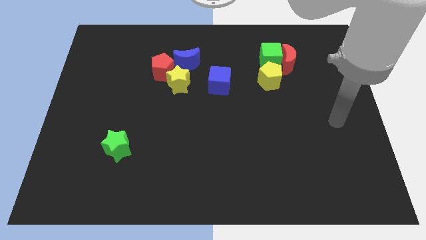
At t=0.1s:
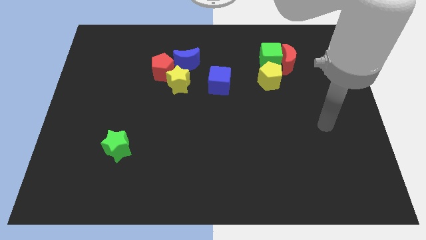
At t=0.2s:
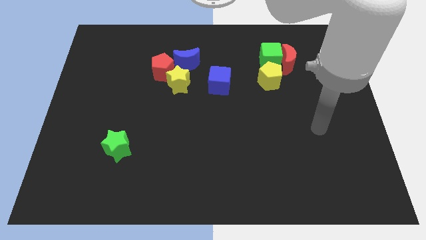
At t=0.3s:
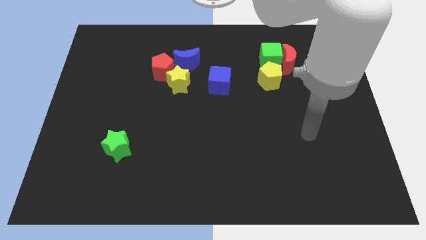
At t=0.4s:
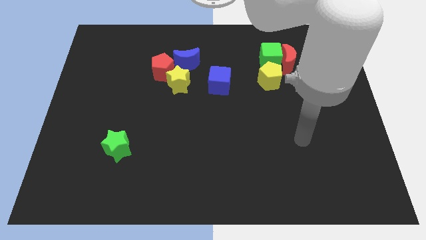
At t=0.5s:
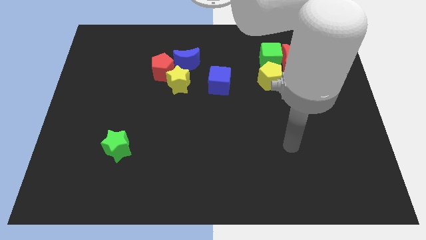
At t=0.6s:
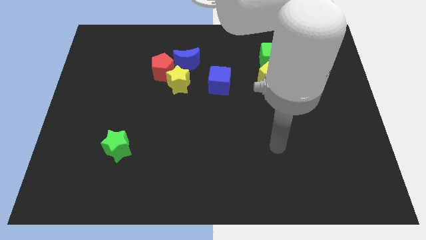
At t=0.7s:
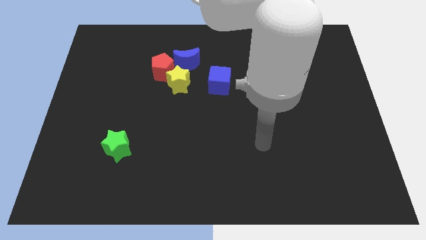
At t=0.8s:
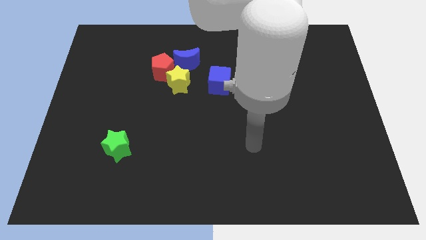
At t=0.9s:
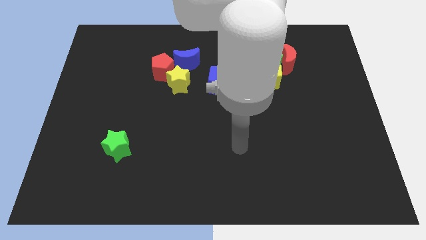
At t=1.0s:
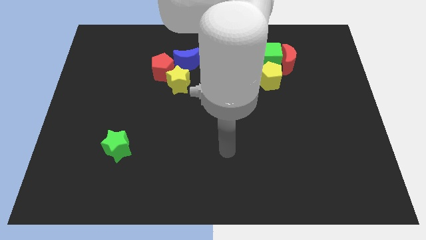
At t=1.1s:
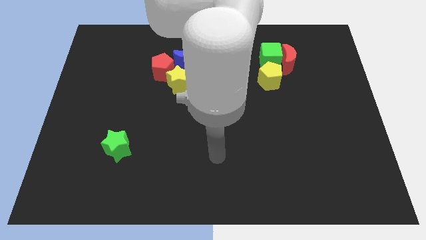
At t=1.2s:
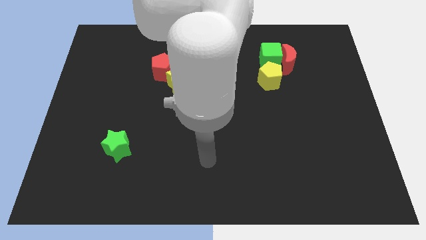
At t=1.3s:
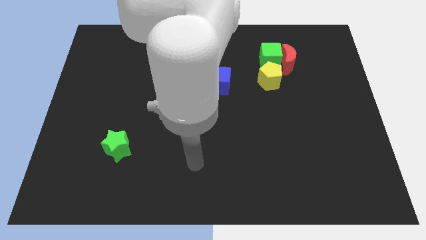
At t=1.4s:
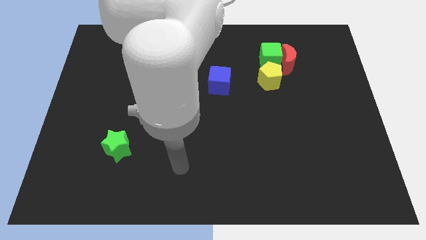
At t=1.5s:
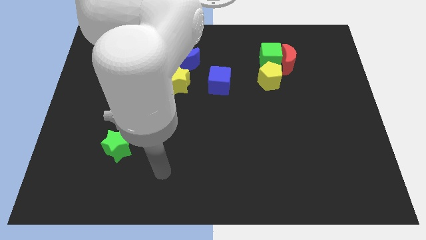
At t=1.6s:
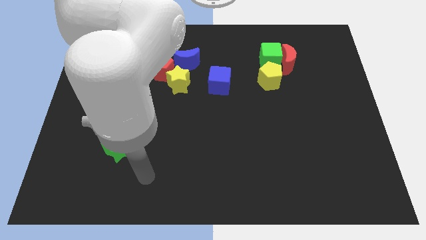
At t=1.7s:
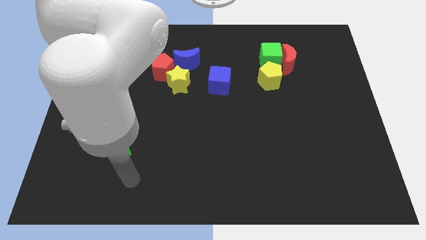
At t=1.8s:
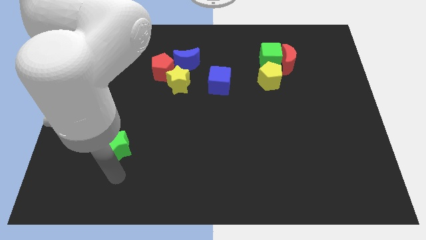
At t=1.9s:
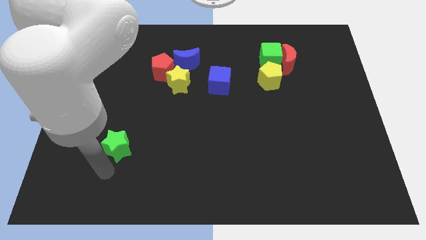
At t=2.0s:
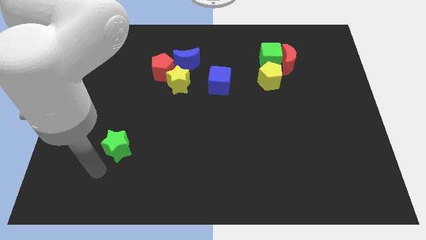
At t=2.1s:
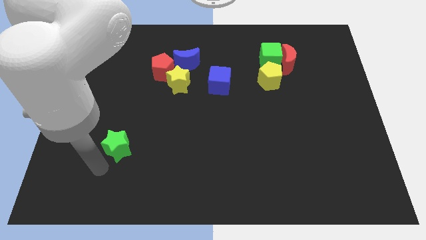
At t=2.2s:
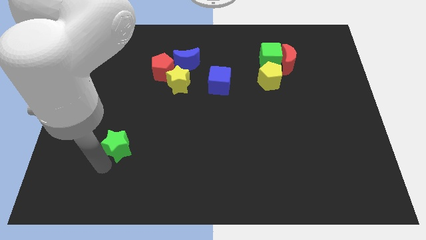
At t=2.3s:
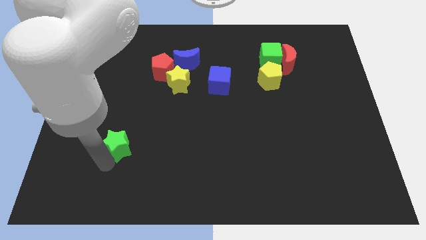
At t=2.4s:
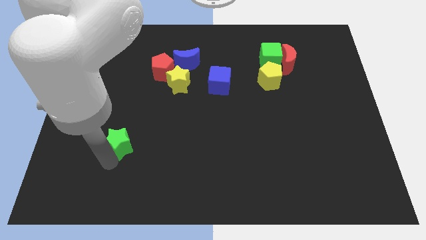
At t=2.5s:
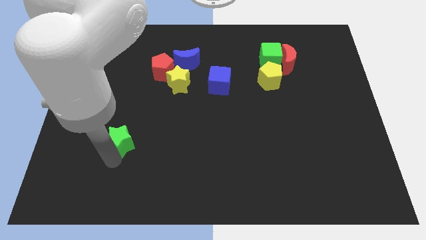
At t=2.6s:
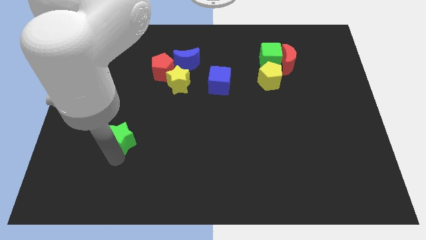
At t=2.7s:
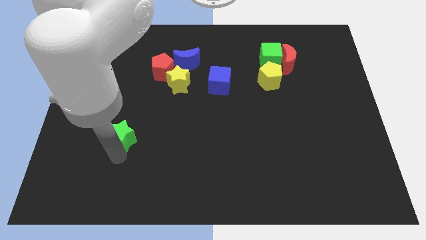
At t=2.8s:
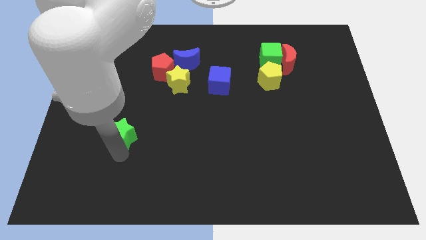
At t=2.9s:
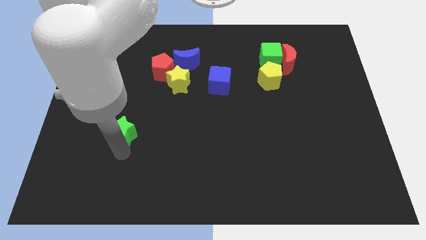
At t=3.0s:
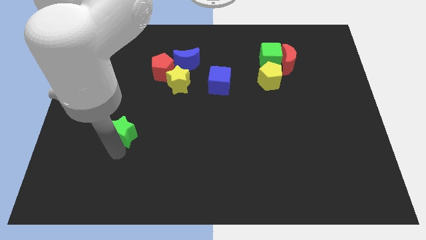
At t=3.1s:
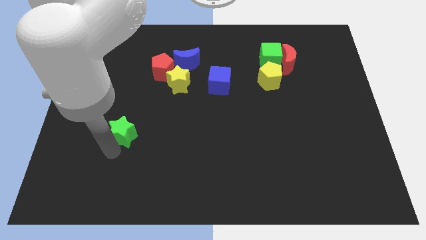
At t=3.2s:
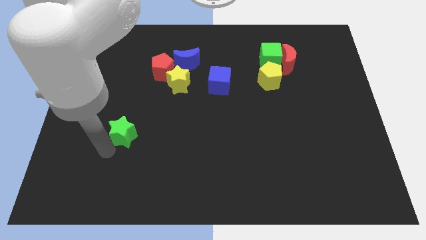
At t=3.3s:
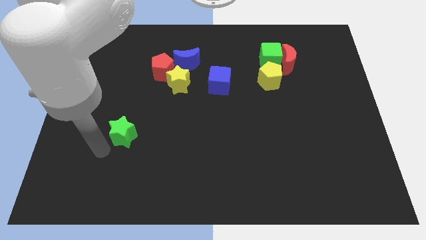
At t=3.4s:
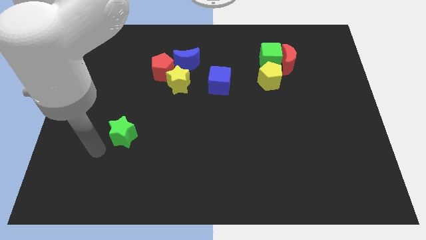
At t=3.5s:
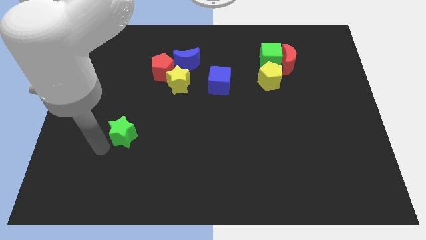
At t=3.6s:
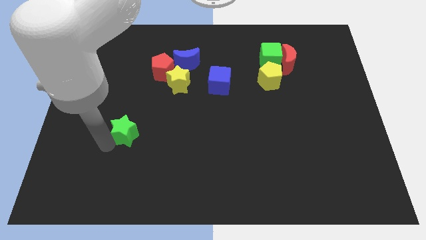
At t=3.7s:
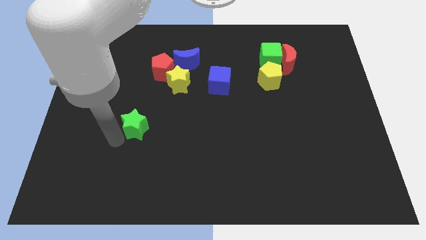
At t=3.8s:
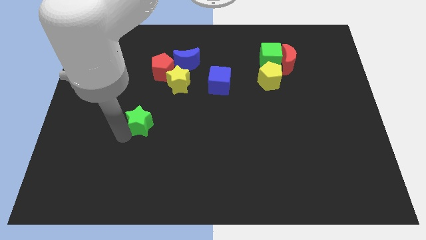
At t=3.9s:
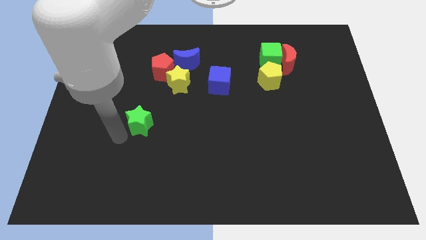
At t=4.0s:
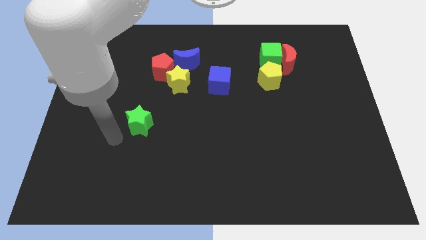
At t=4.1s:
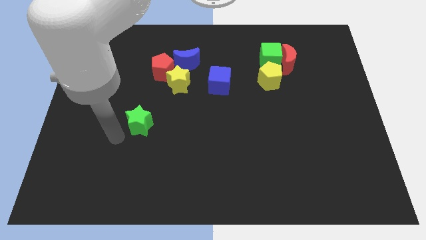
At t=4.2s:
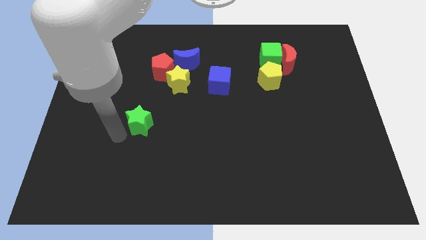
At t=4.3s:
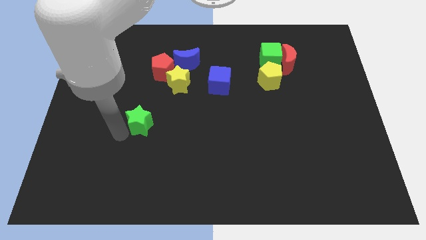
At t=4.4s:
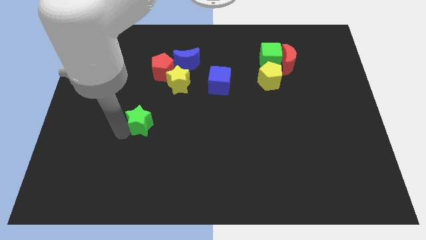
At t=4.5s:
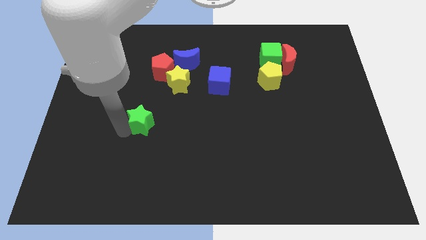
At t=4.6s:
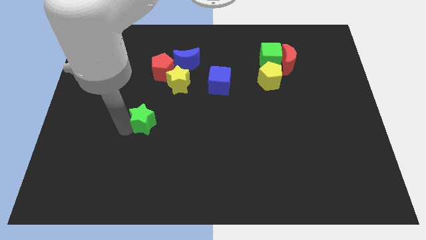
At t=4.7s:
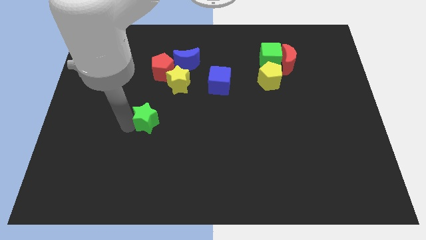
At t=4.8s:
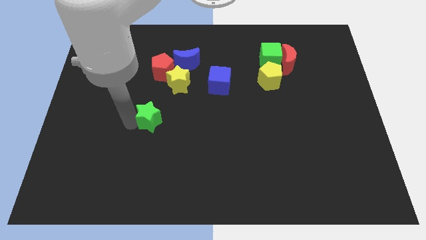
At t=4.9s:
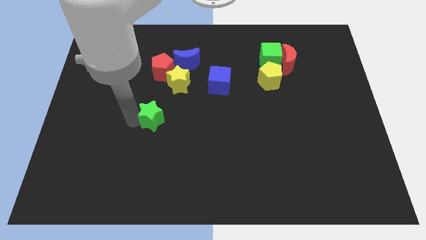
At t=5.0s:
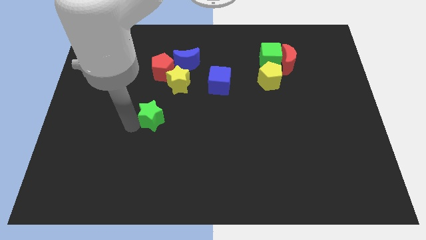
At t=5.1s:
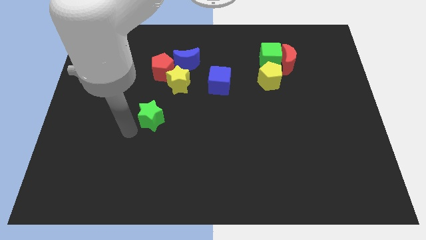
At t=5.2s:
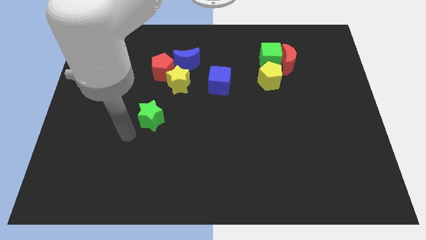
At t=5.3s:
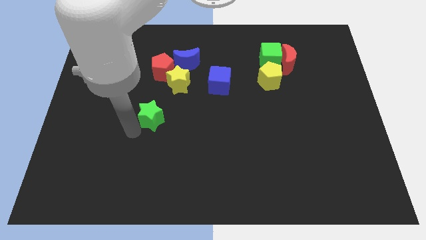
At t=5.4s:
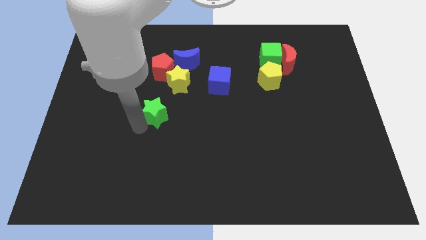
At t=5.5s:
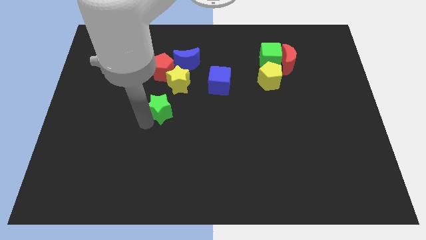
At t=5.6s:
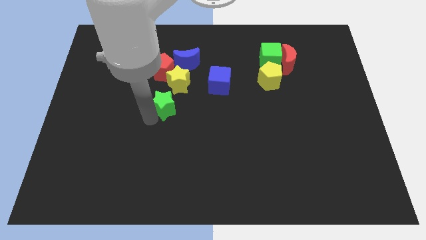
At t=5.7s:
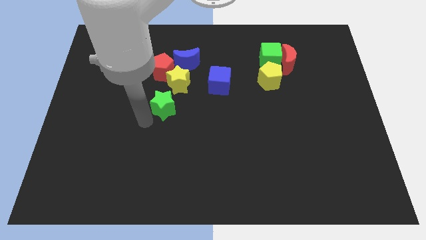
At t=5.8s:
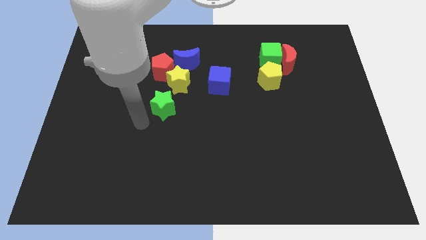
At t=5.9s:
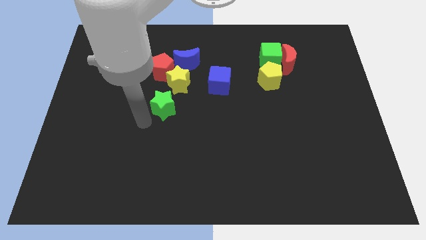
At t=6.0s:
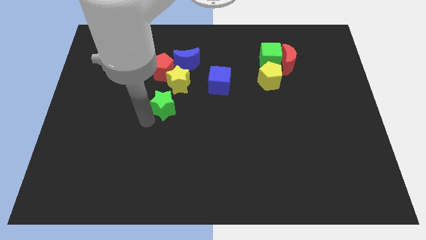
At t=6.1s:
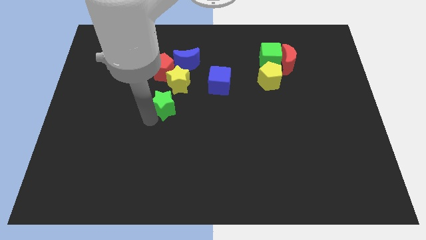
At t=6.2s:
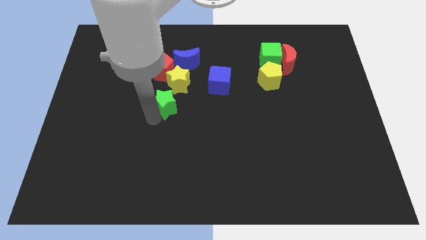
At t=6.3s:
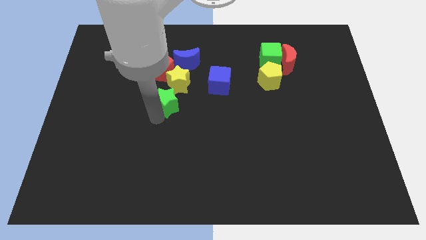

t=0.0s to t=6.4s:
put the green star below the blue moon

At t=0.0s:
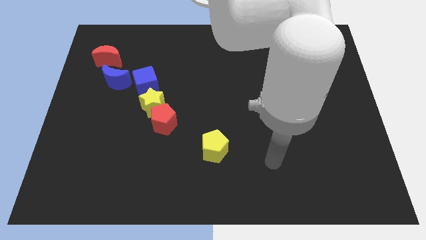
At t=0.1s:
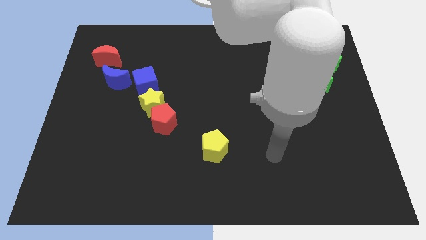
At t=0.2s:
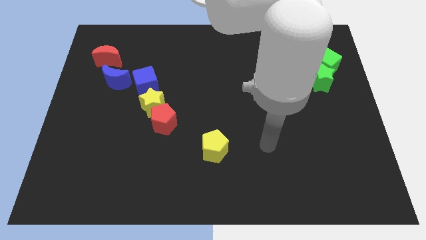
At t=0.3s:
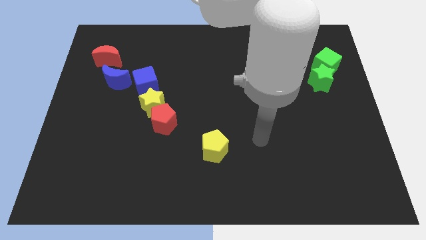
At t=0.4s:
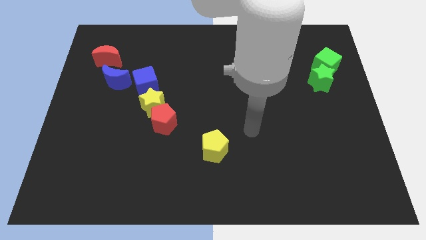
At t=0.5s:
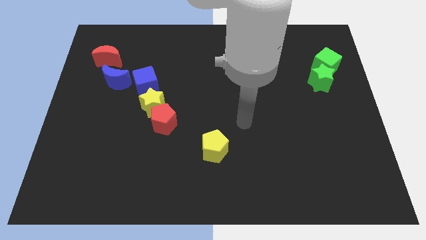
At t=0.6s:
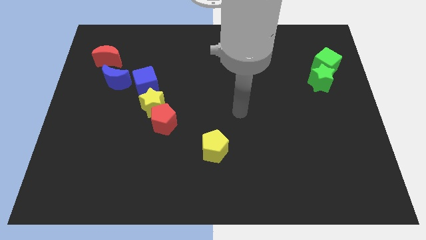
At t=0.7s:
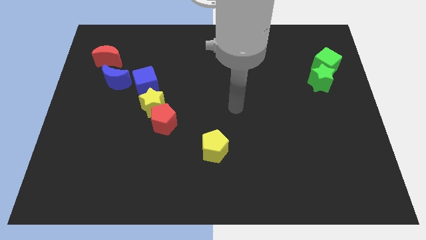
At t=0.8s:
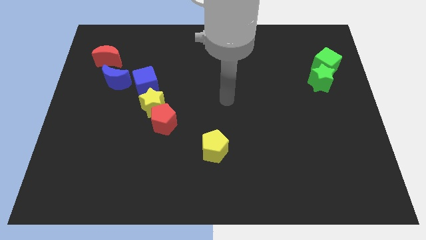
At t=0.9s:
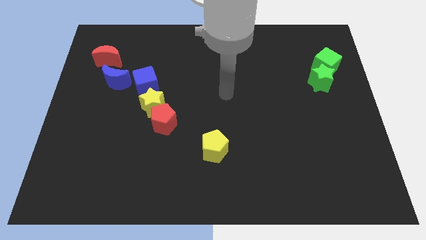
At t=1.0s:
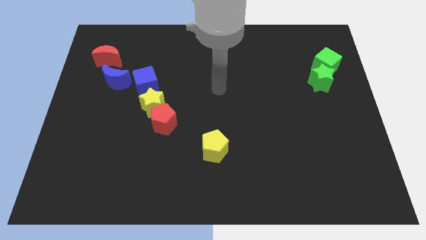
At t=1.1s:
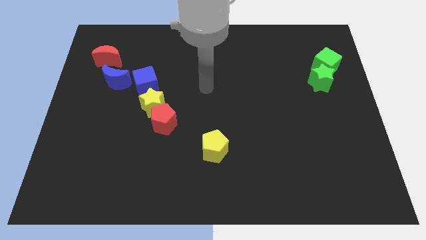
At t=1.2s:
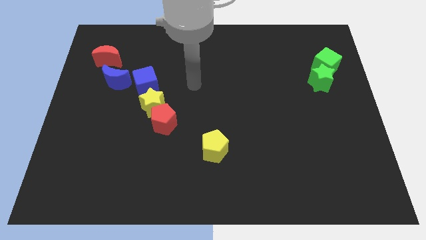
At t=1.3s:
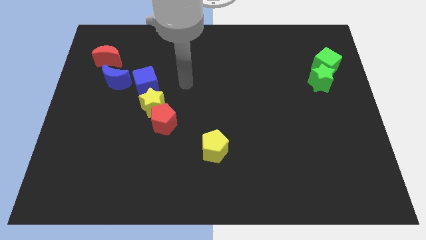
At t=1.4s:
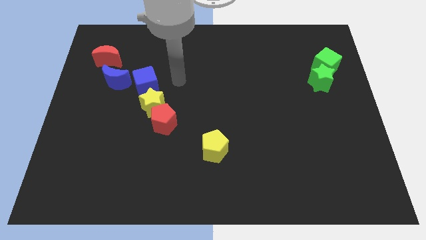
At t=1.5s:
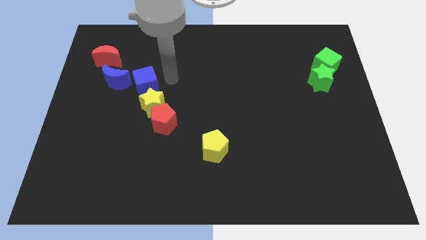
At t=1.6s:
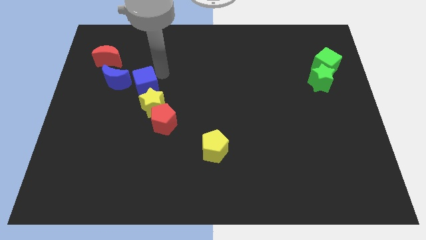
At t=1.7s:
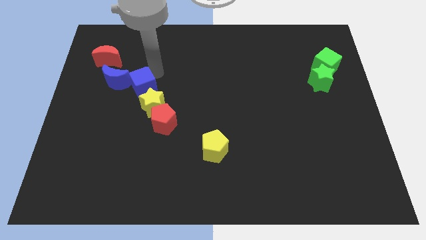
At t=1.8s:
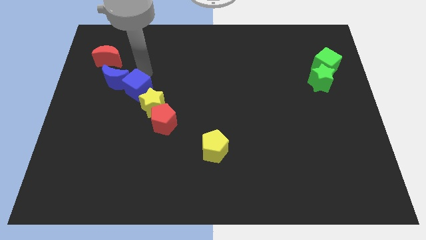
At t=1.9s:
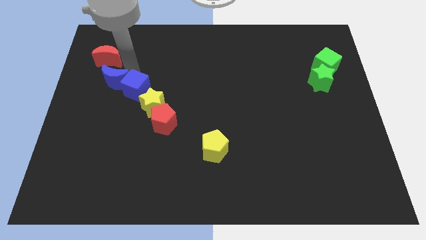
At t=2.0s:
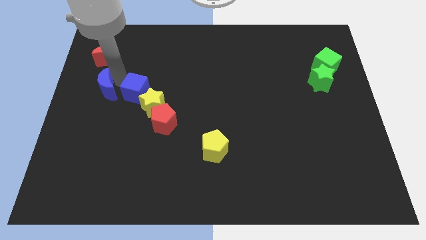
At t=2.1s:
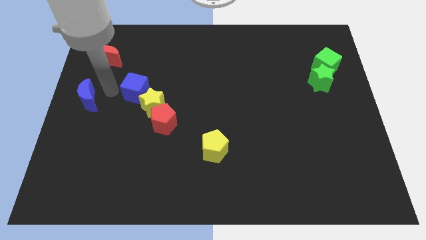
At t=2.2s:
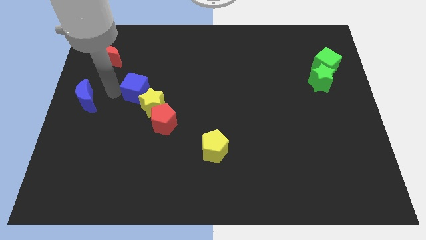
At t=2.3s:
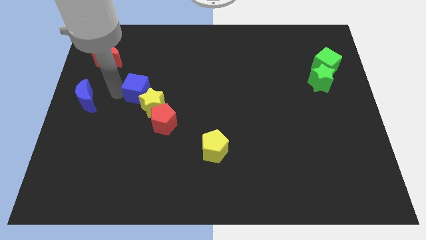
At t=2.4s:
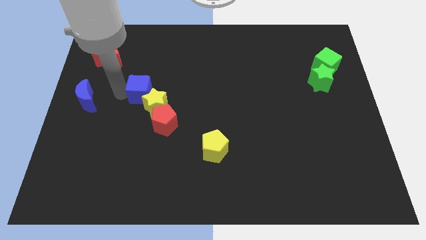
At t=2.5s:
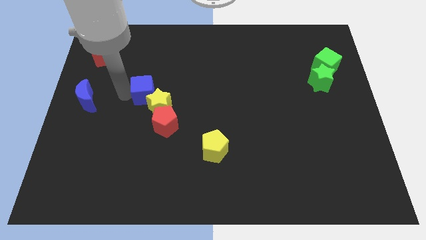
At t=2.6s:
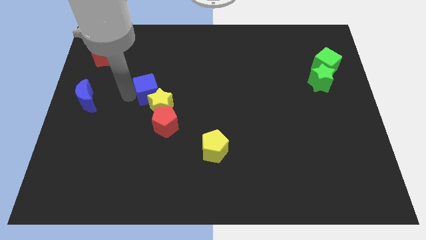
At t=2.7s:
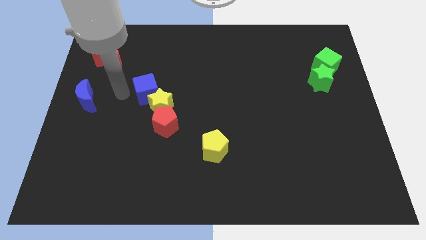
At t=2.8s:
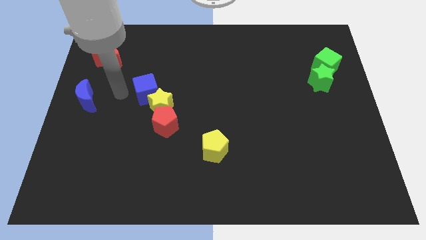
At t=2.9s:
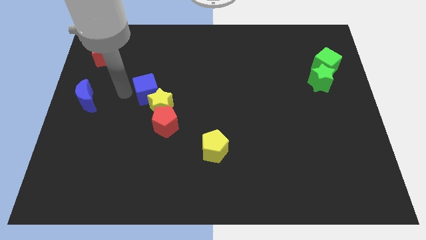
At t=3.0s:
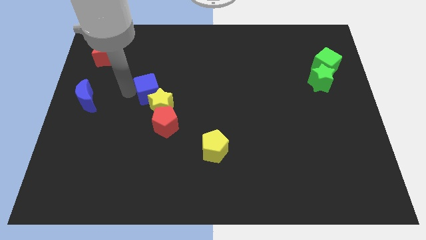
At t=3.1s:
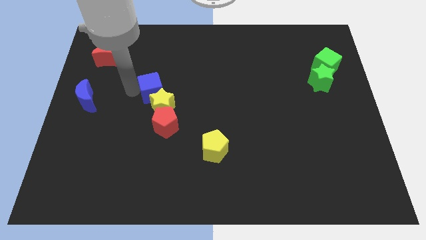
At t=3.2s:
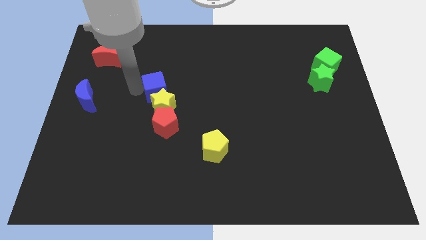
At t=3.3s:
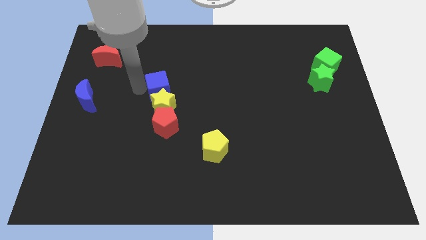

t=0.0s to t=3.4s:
put the blue cube diagonally up and to the right of the yellow star
